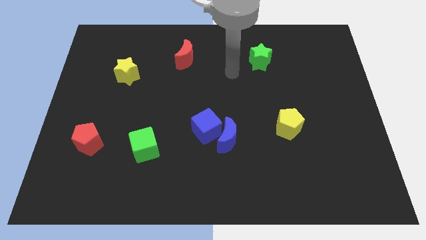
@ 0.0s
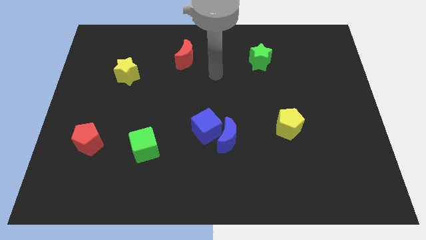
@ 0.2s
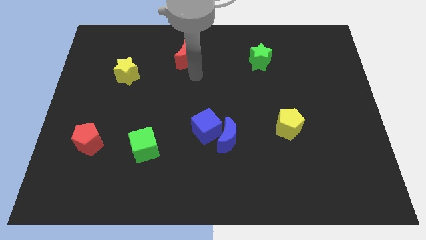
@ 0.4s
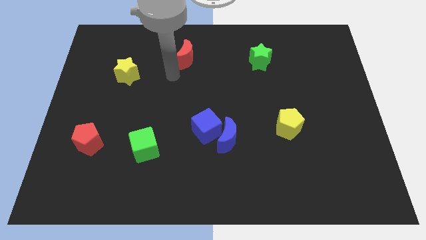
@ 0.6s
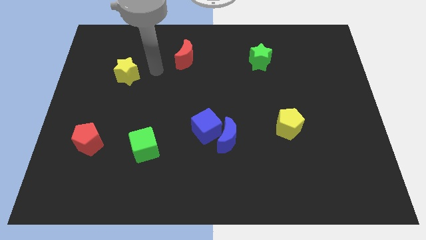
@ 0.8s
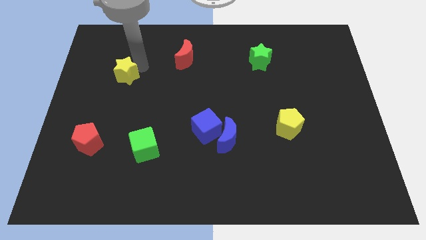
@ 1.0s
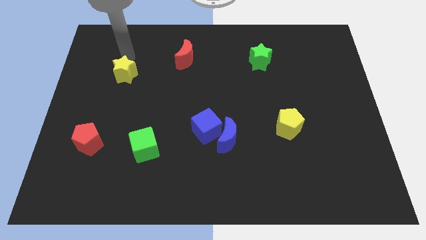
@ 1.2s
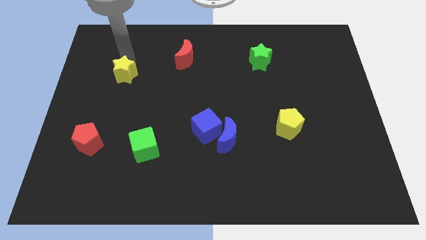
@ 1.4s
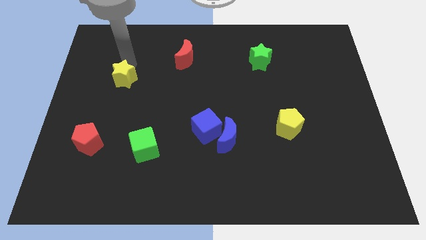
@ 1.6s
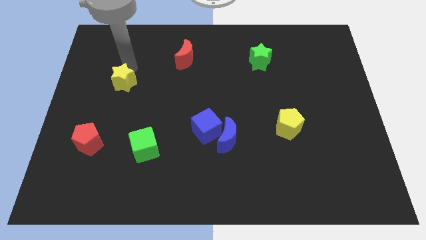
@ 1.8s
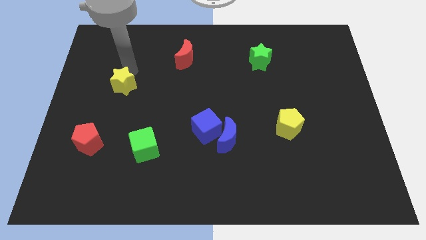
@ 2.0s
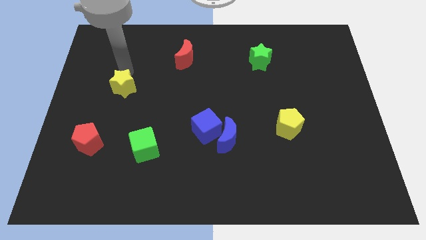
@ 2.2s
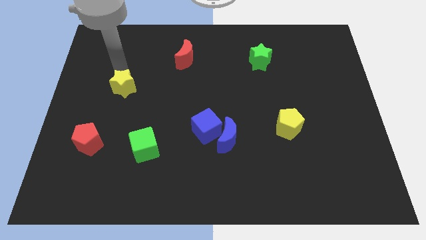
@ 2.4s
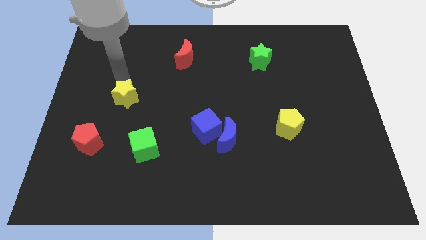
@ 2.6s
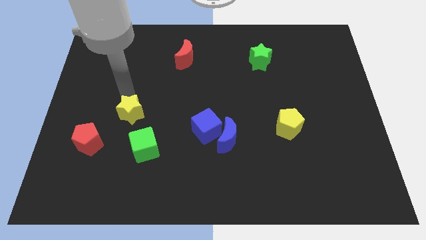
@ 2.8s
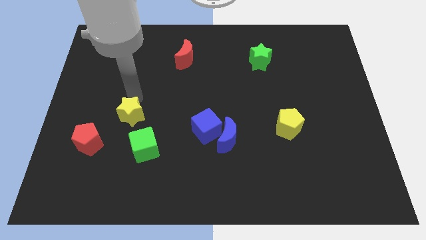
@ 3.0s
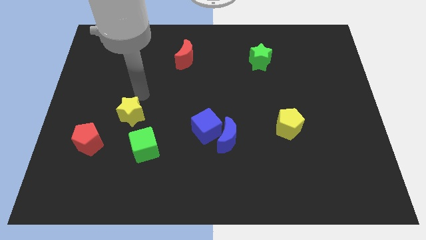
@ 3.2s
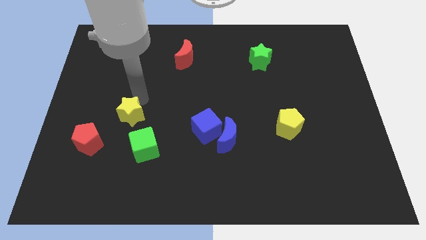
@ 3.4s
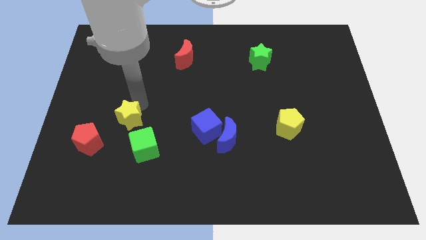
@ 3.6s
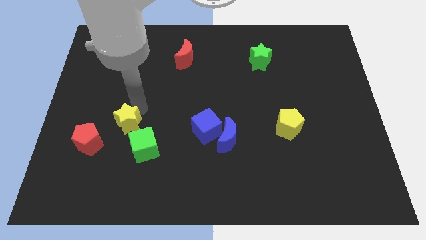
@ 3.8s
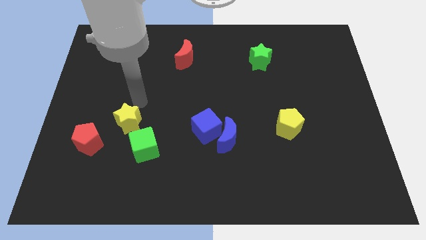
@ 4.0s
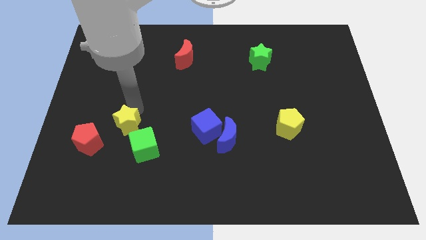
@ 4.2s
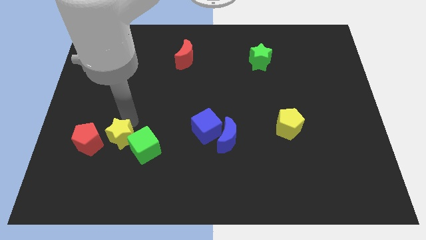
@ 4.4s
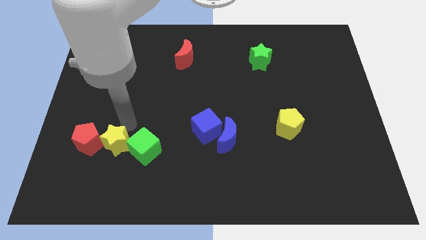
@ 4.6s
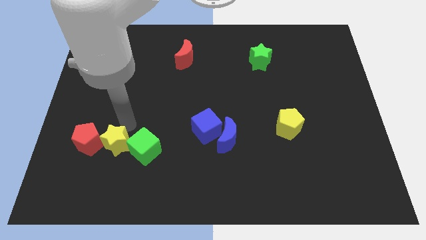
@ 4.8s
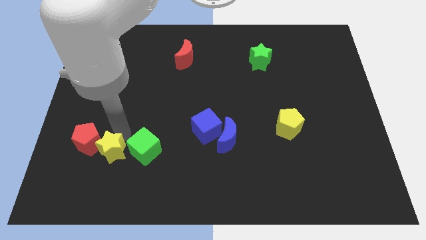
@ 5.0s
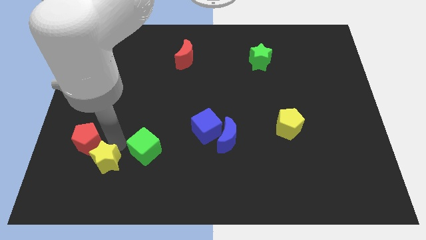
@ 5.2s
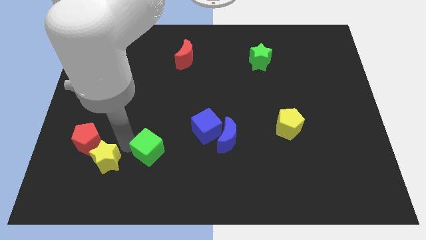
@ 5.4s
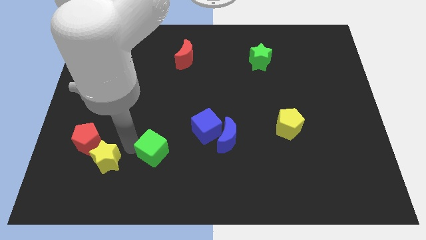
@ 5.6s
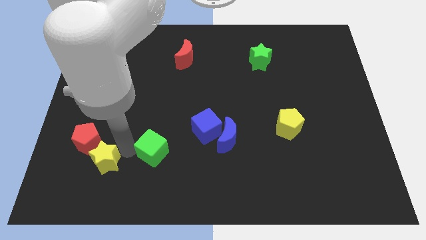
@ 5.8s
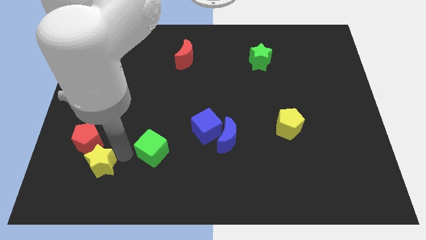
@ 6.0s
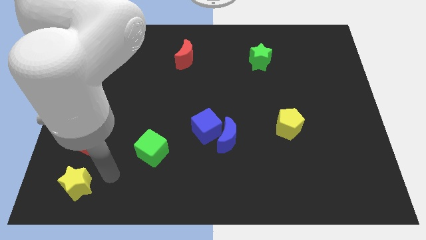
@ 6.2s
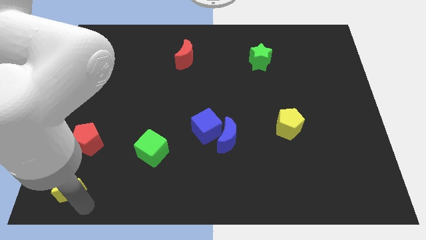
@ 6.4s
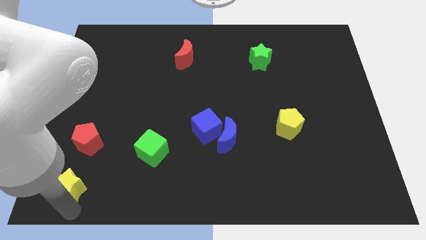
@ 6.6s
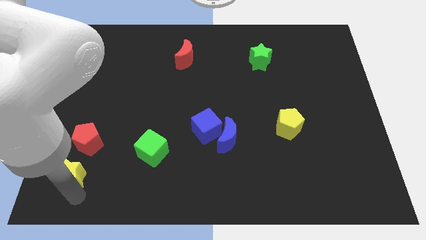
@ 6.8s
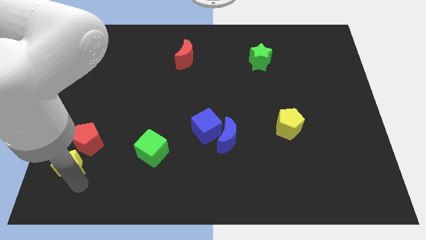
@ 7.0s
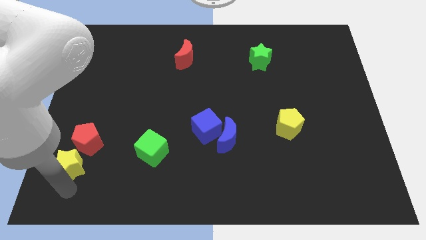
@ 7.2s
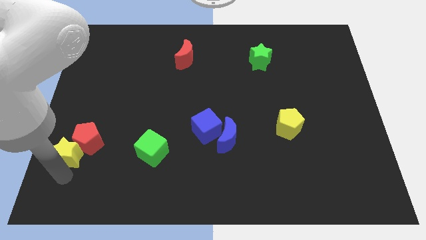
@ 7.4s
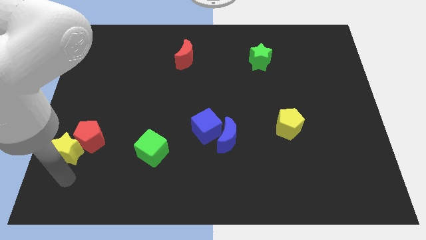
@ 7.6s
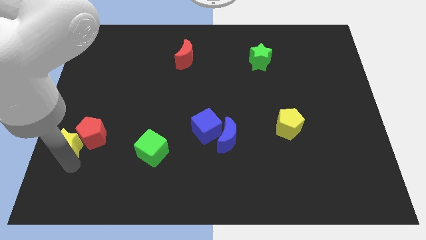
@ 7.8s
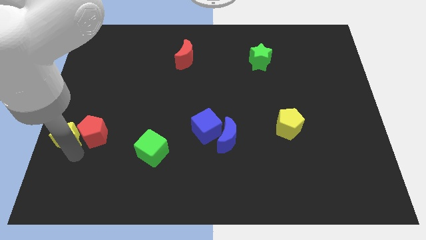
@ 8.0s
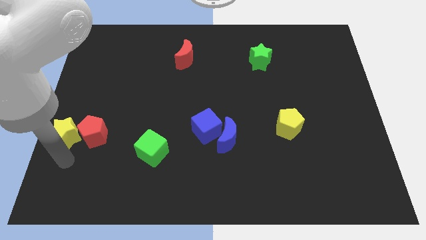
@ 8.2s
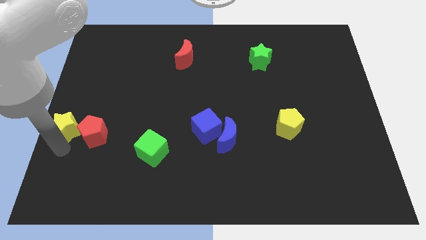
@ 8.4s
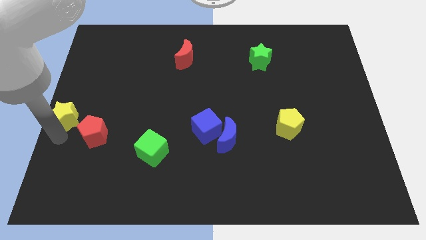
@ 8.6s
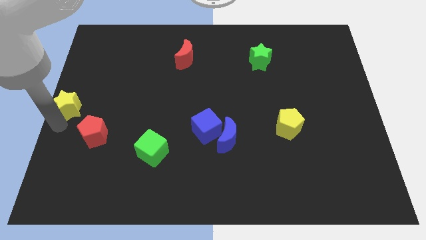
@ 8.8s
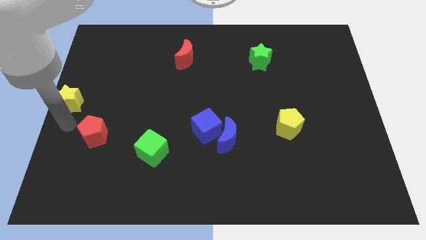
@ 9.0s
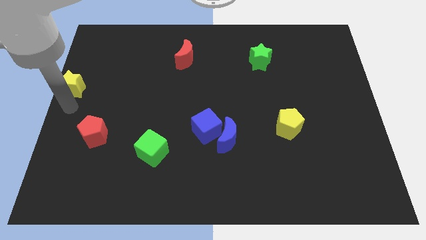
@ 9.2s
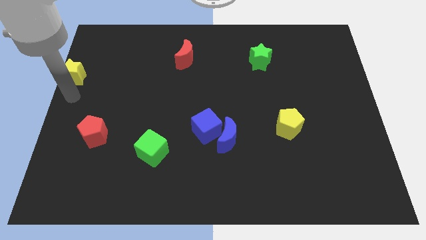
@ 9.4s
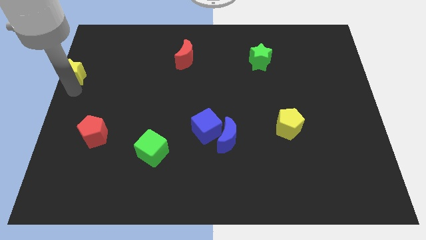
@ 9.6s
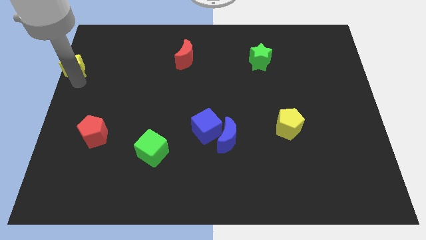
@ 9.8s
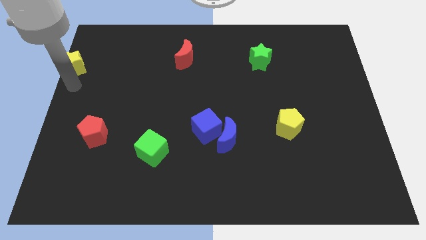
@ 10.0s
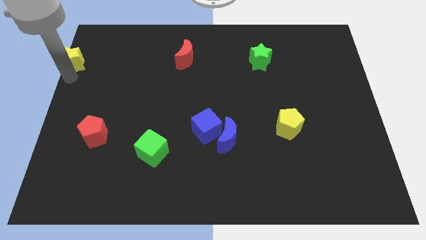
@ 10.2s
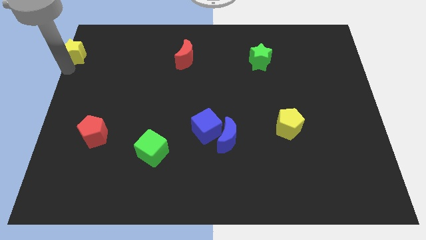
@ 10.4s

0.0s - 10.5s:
move the yellow star to the top left
